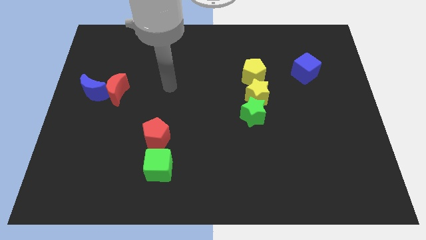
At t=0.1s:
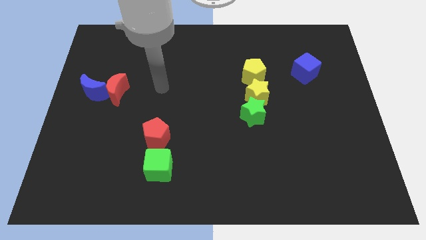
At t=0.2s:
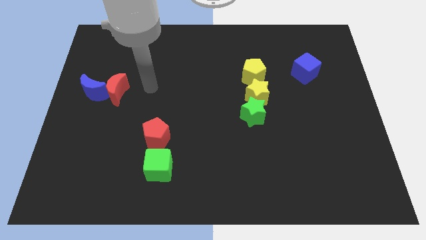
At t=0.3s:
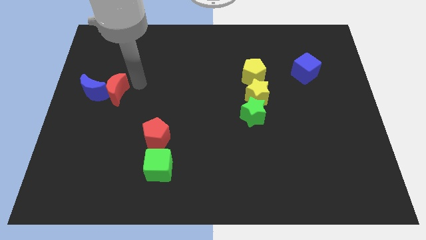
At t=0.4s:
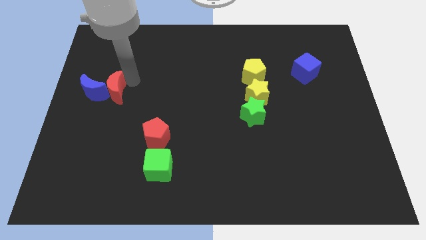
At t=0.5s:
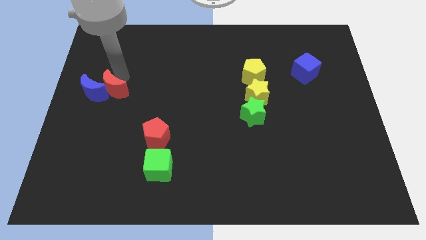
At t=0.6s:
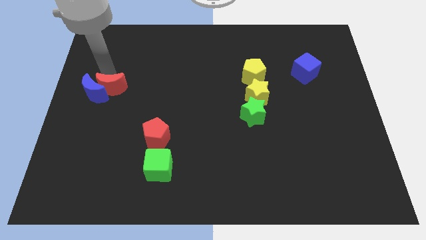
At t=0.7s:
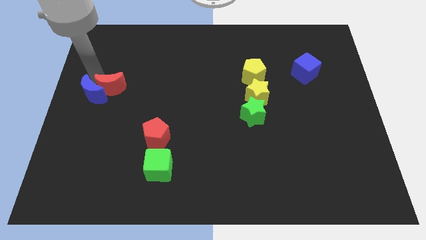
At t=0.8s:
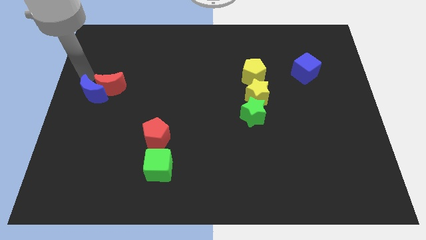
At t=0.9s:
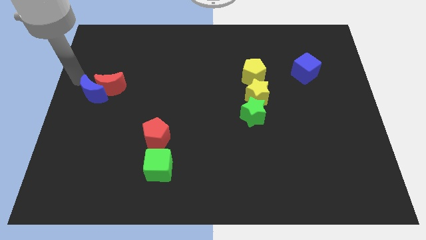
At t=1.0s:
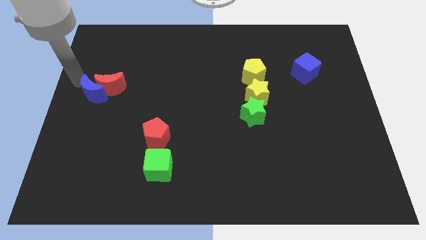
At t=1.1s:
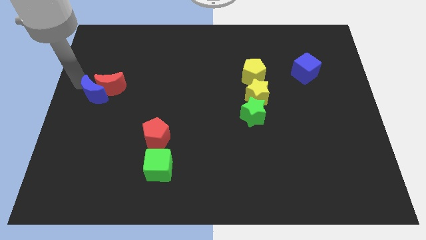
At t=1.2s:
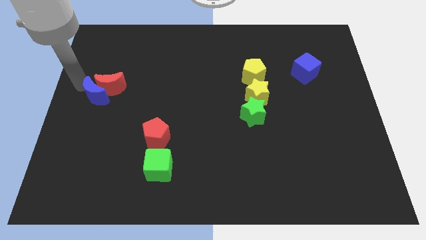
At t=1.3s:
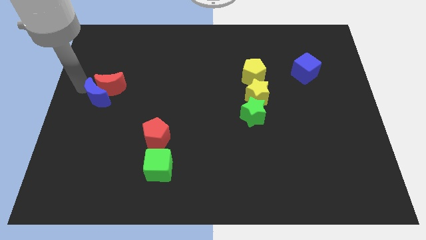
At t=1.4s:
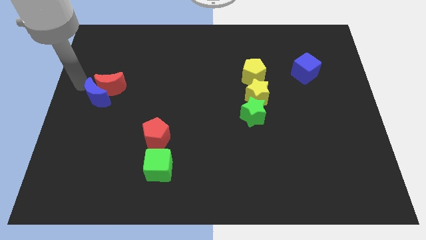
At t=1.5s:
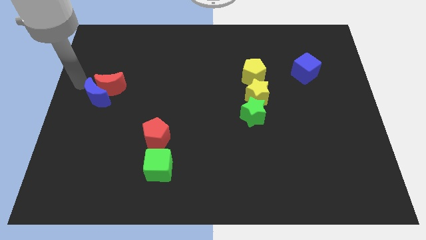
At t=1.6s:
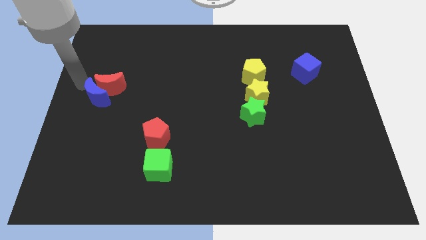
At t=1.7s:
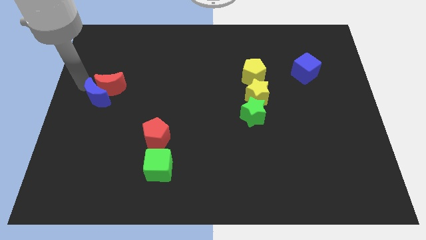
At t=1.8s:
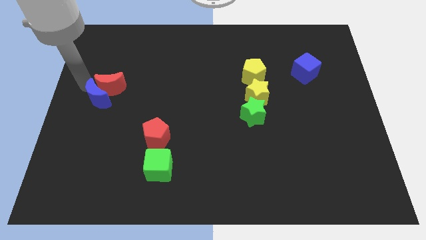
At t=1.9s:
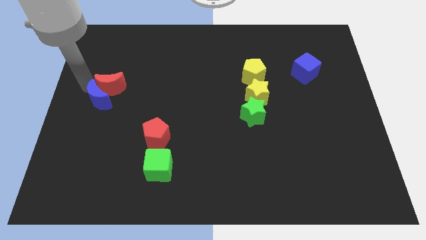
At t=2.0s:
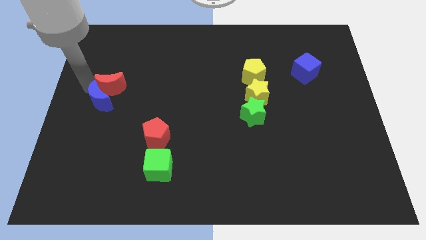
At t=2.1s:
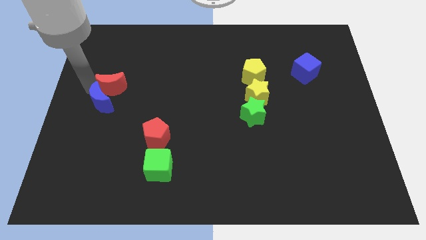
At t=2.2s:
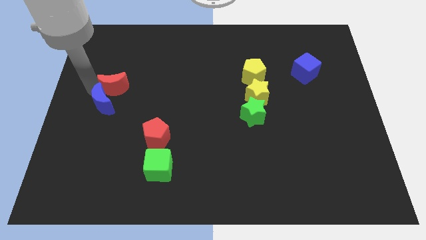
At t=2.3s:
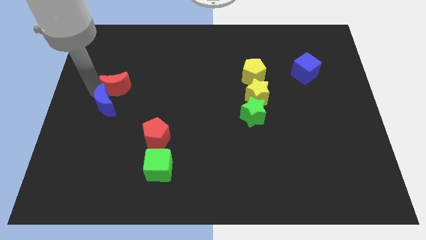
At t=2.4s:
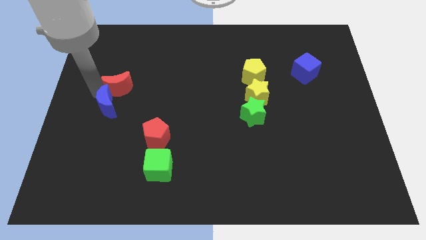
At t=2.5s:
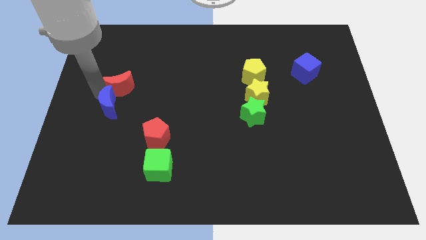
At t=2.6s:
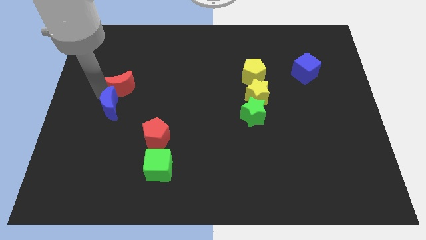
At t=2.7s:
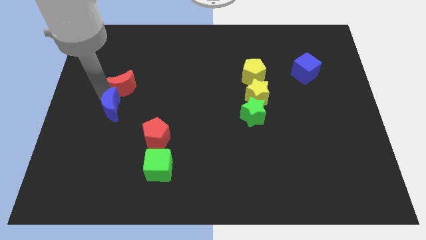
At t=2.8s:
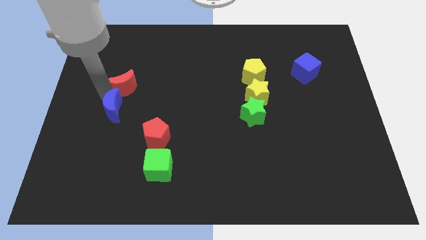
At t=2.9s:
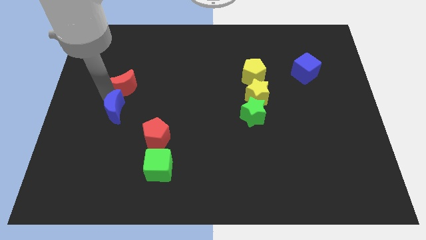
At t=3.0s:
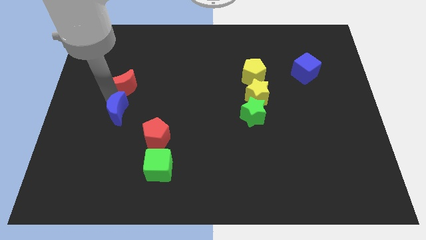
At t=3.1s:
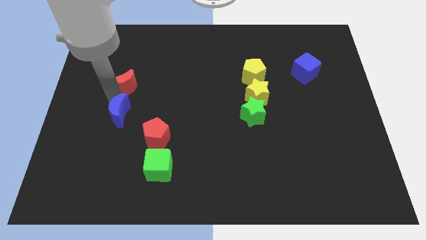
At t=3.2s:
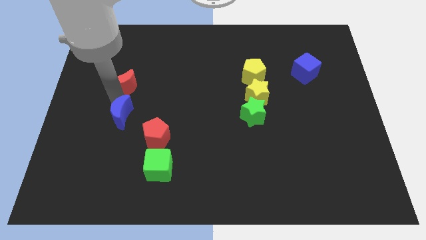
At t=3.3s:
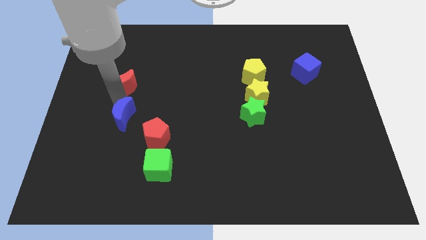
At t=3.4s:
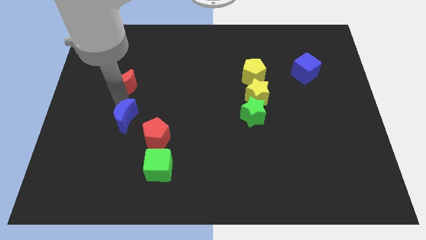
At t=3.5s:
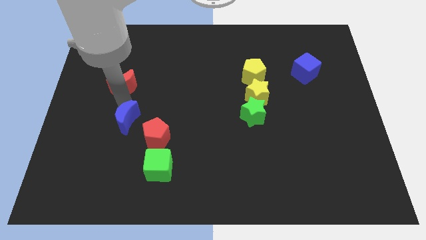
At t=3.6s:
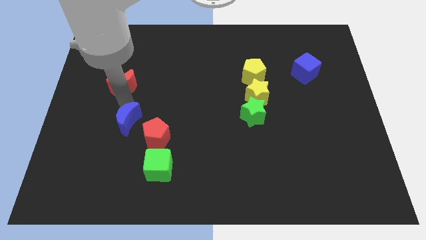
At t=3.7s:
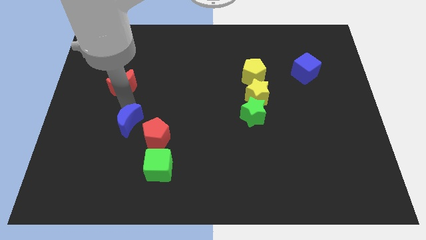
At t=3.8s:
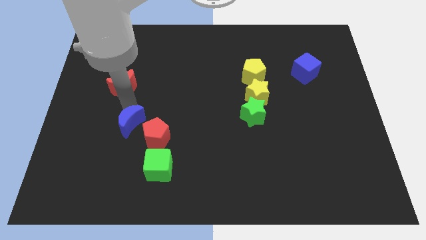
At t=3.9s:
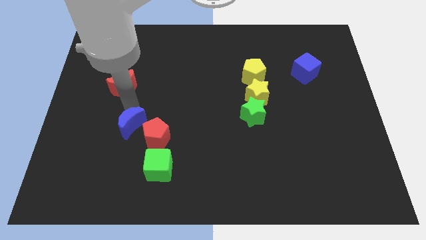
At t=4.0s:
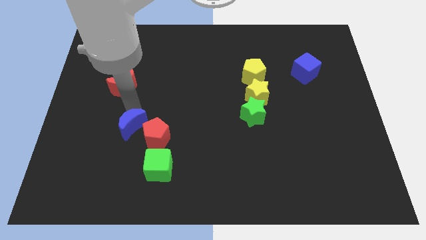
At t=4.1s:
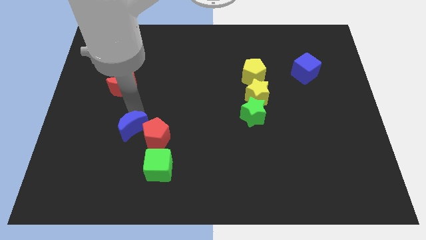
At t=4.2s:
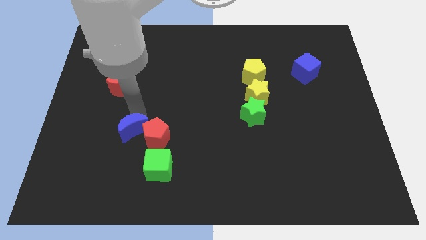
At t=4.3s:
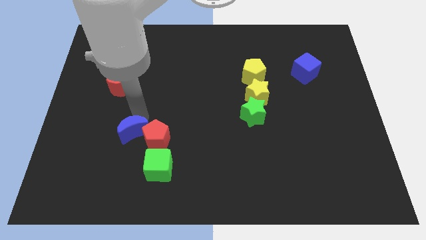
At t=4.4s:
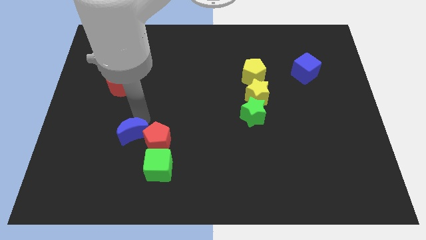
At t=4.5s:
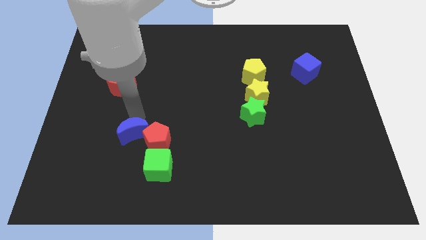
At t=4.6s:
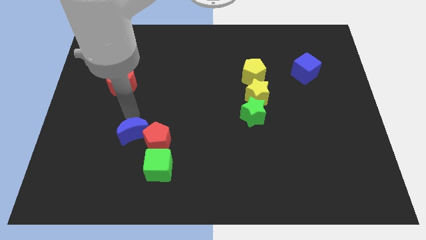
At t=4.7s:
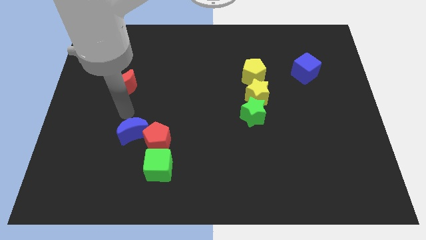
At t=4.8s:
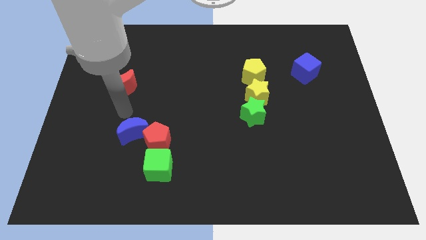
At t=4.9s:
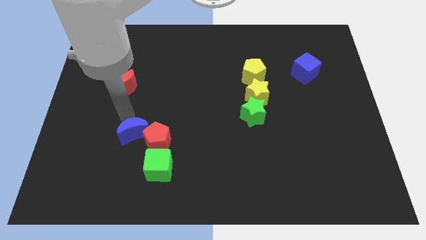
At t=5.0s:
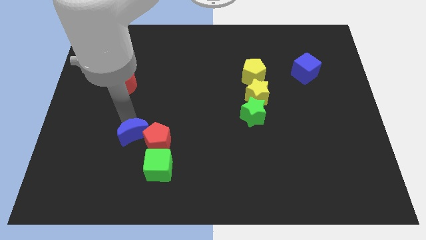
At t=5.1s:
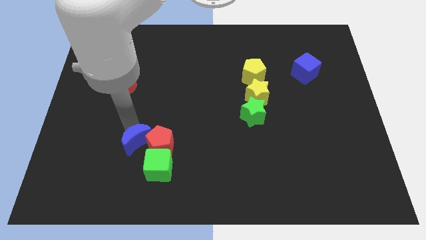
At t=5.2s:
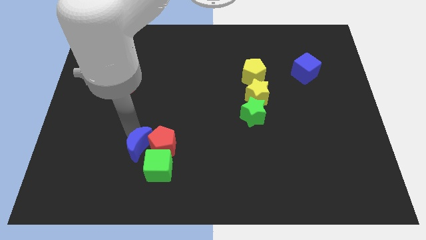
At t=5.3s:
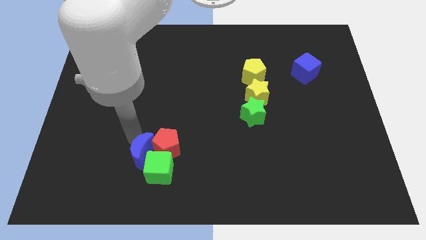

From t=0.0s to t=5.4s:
put the blue moon next to the green cube

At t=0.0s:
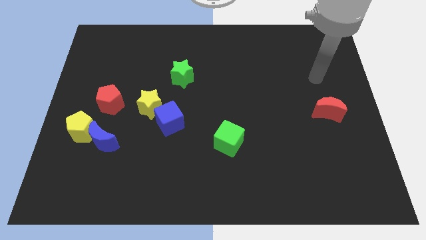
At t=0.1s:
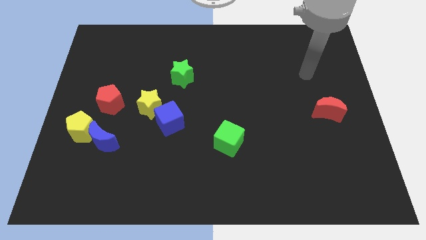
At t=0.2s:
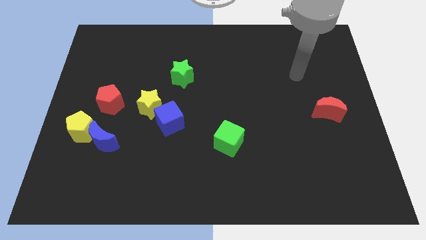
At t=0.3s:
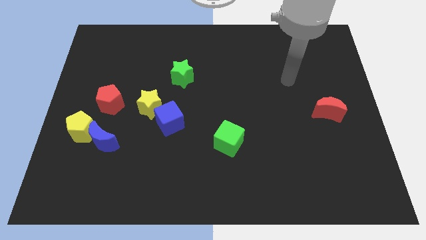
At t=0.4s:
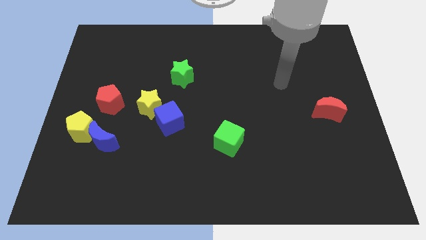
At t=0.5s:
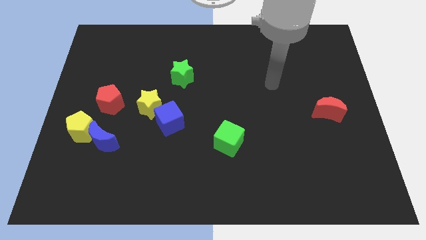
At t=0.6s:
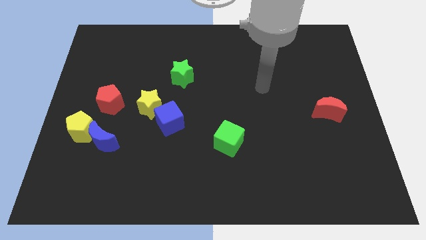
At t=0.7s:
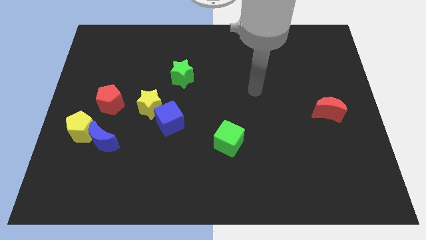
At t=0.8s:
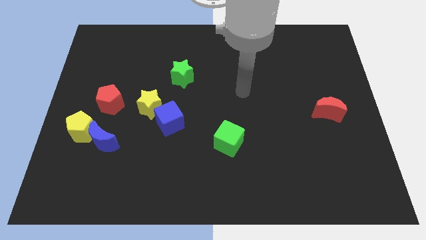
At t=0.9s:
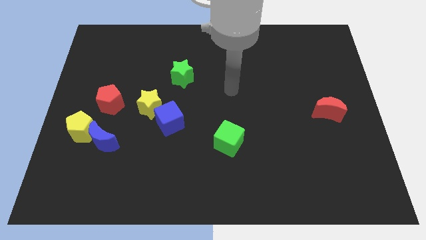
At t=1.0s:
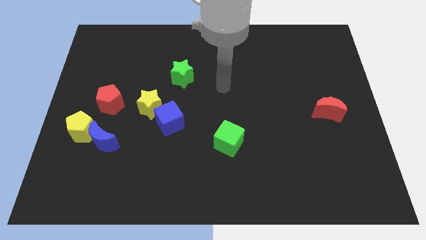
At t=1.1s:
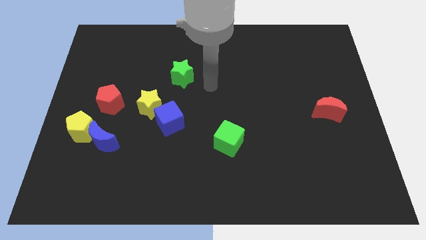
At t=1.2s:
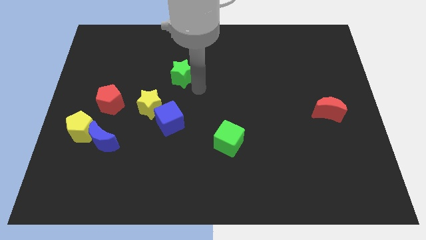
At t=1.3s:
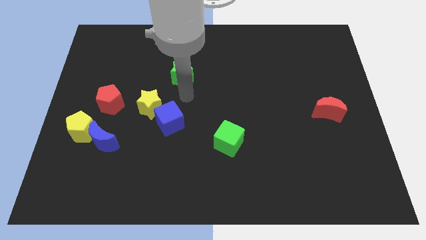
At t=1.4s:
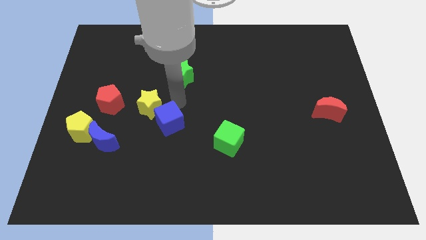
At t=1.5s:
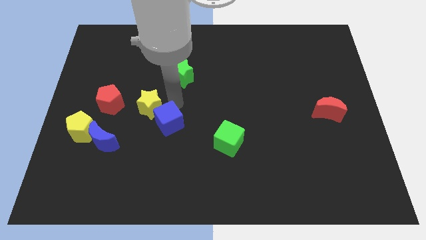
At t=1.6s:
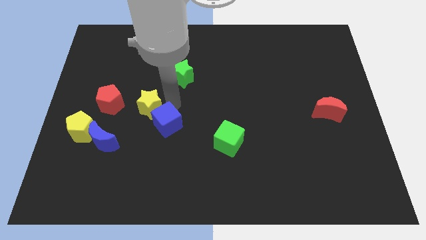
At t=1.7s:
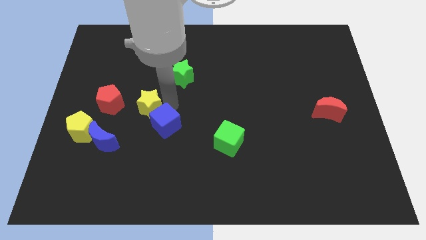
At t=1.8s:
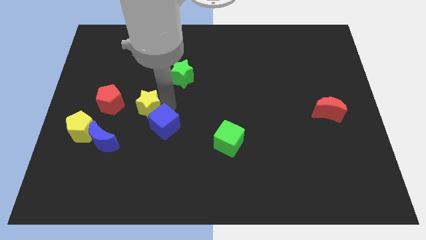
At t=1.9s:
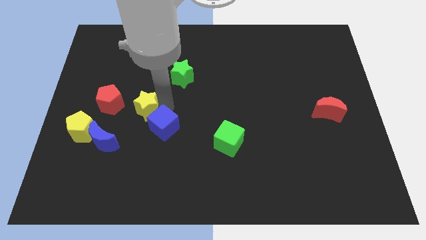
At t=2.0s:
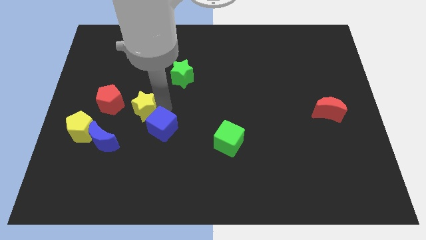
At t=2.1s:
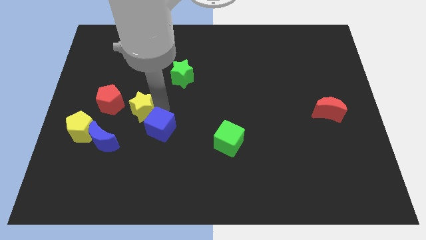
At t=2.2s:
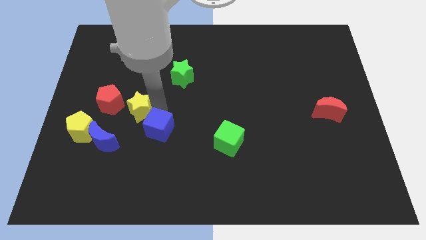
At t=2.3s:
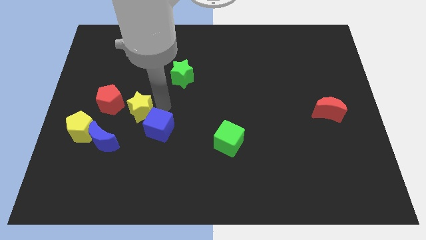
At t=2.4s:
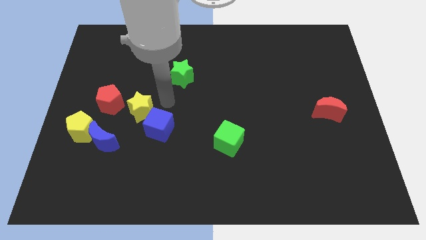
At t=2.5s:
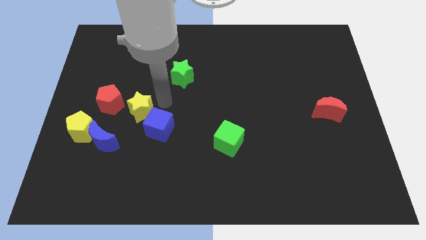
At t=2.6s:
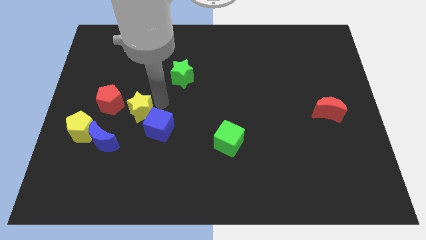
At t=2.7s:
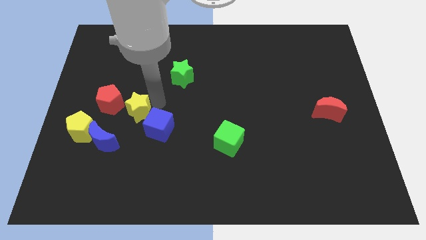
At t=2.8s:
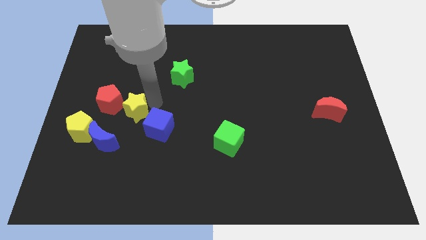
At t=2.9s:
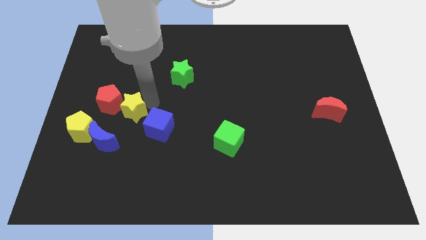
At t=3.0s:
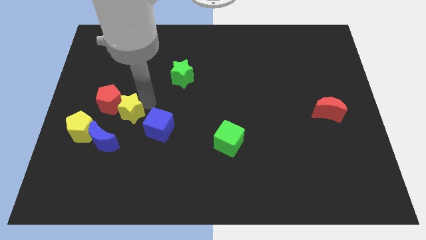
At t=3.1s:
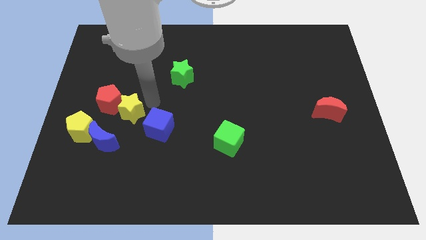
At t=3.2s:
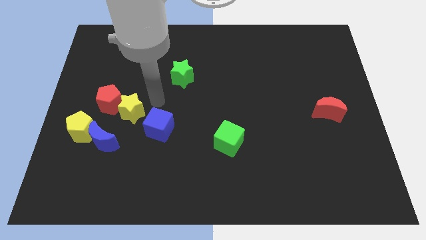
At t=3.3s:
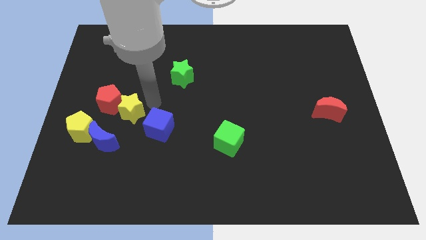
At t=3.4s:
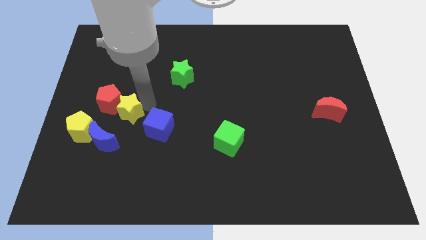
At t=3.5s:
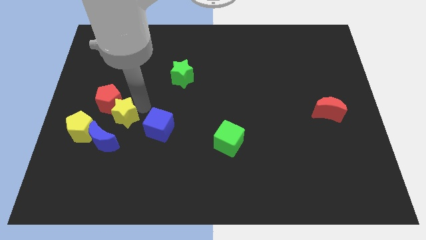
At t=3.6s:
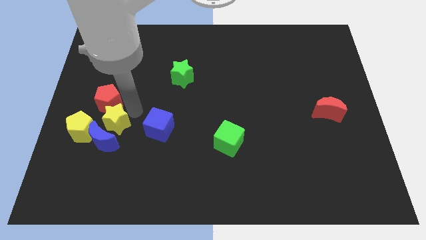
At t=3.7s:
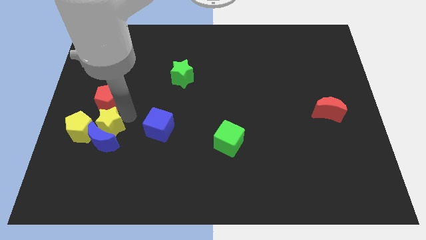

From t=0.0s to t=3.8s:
put the yellow star towards the yellow pentagon
